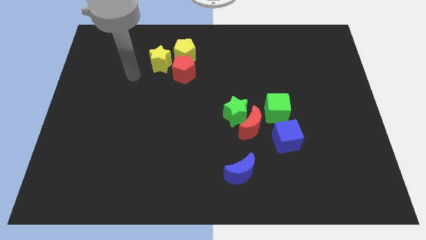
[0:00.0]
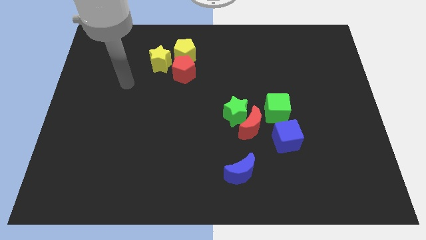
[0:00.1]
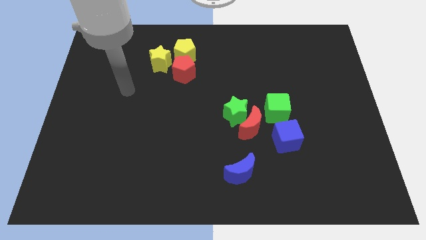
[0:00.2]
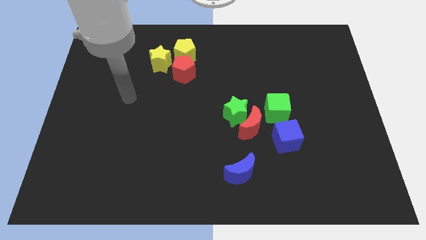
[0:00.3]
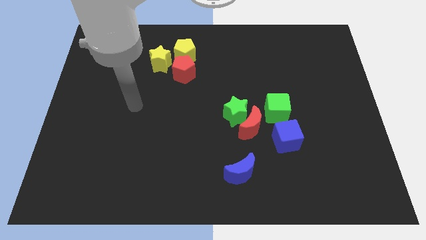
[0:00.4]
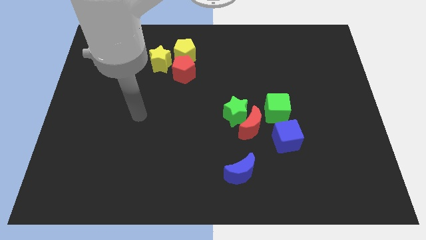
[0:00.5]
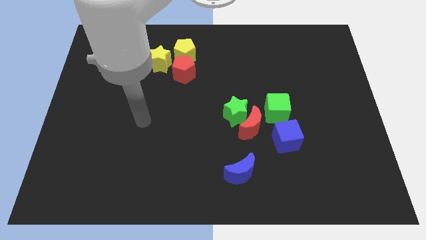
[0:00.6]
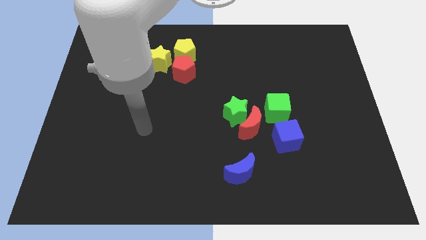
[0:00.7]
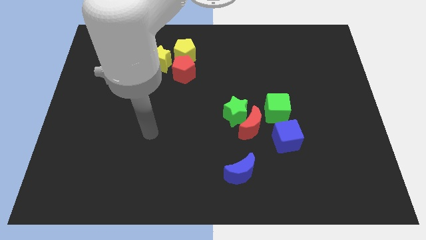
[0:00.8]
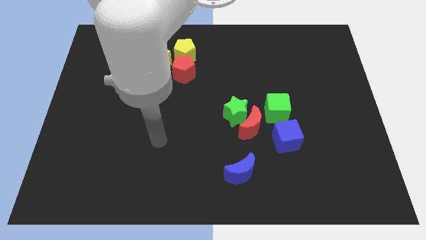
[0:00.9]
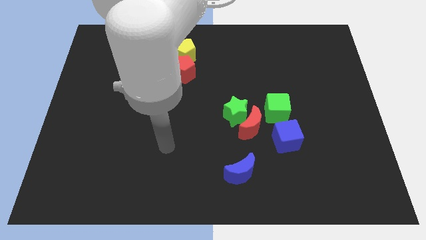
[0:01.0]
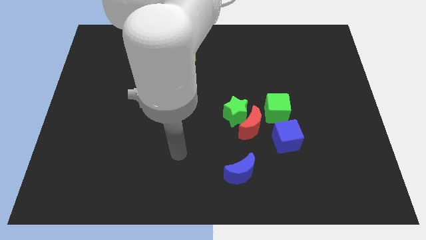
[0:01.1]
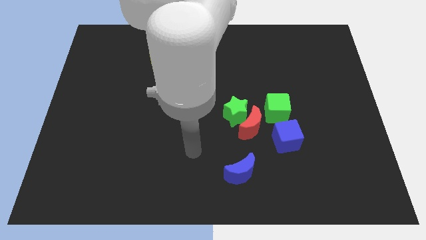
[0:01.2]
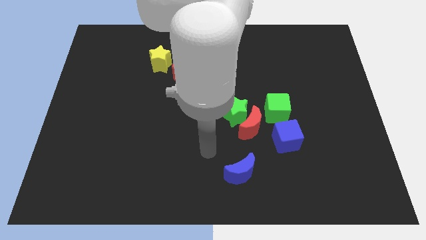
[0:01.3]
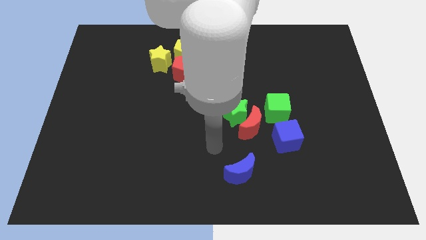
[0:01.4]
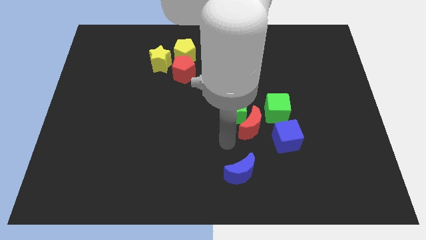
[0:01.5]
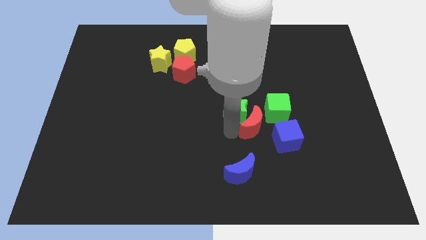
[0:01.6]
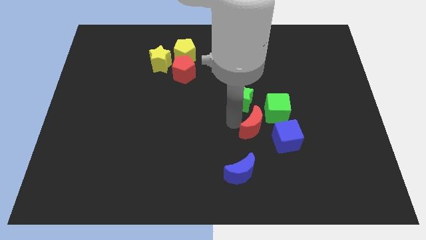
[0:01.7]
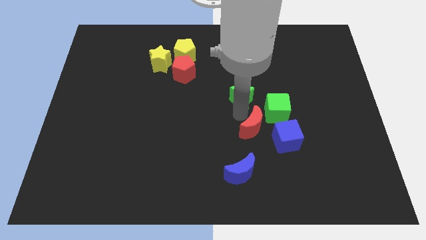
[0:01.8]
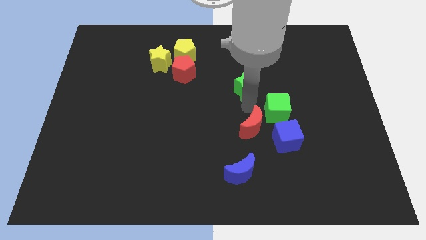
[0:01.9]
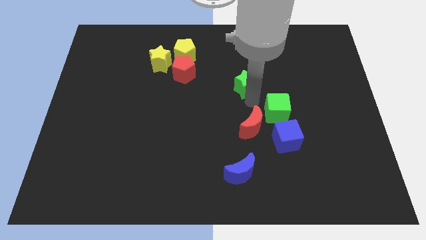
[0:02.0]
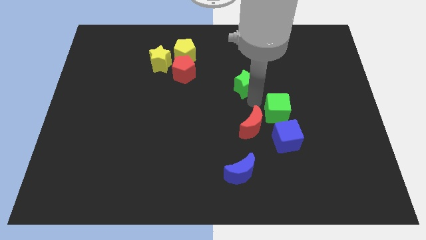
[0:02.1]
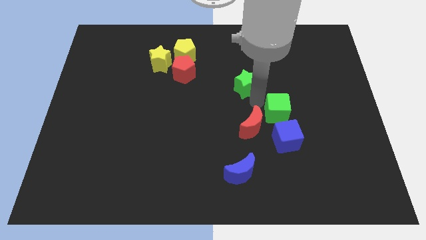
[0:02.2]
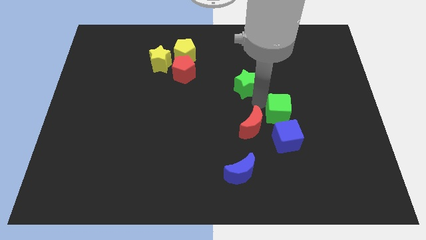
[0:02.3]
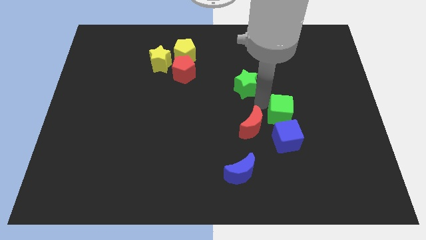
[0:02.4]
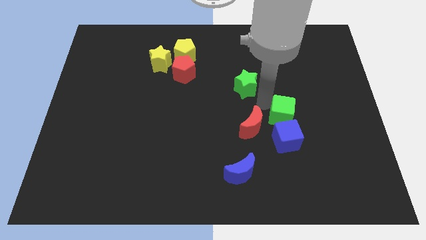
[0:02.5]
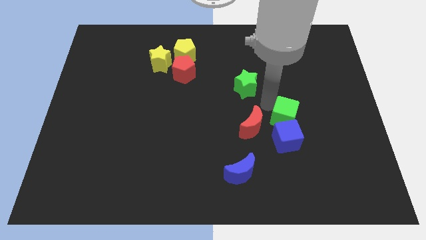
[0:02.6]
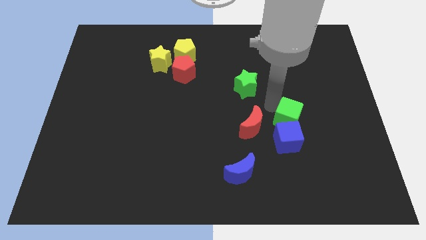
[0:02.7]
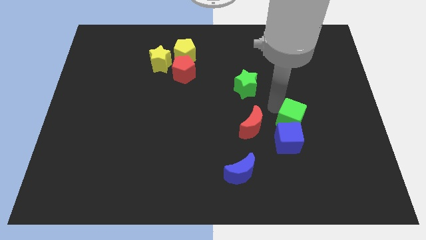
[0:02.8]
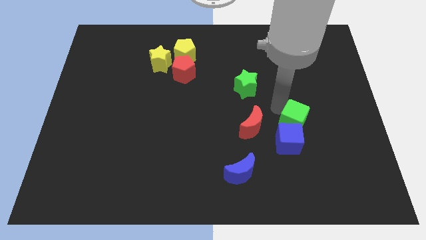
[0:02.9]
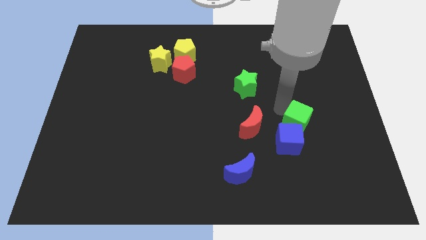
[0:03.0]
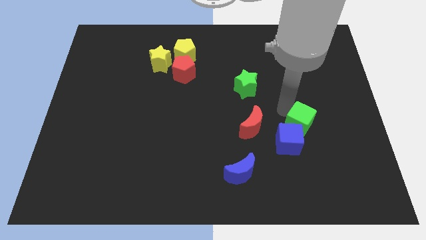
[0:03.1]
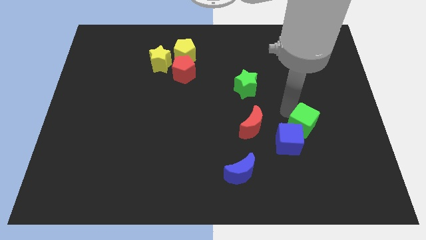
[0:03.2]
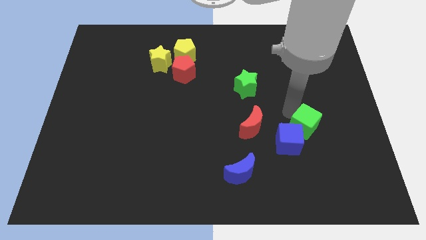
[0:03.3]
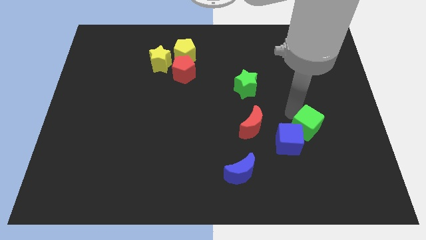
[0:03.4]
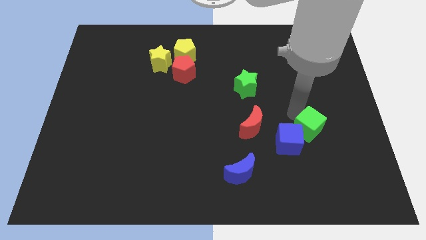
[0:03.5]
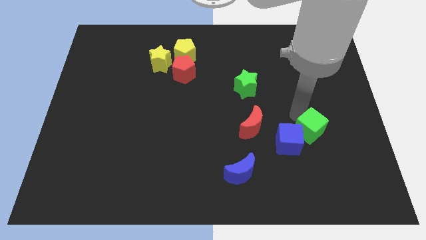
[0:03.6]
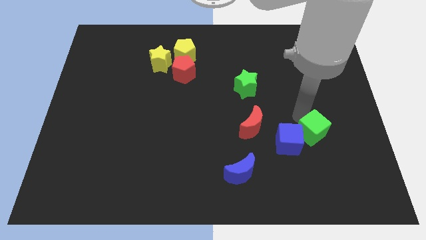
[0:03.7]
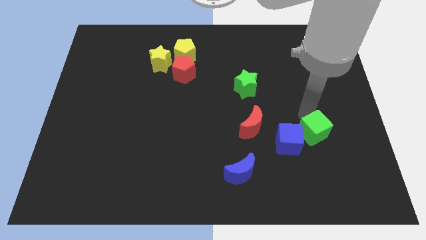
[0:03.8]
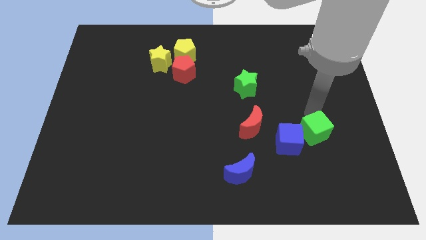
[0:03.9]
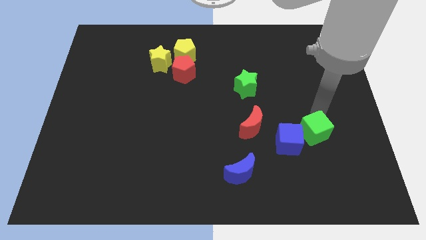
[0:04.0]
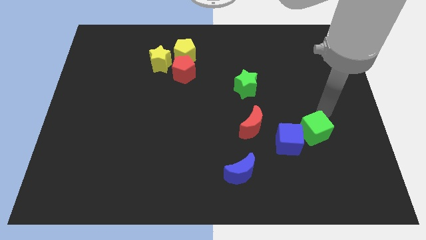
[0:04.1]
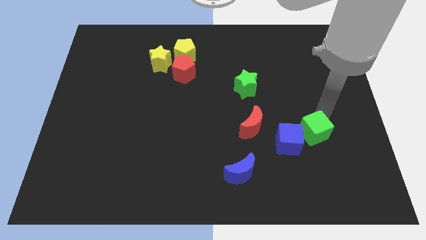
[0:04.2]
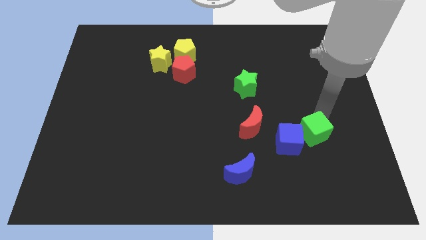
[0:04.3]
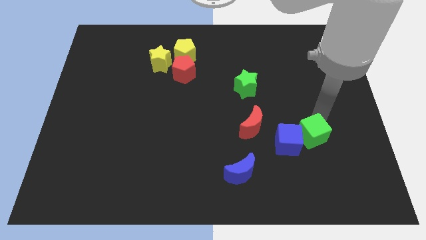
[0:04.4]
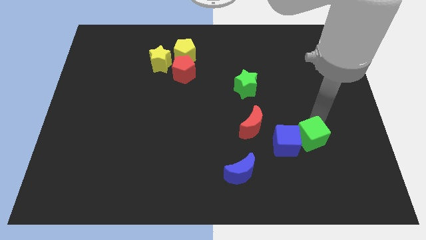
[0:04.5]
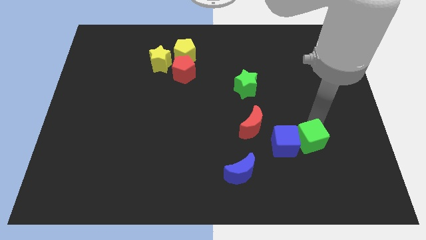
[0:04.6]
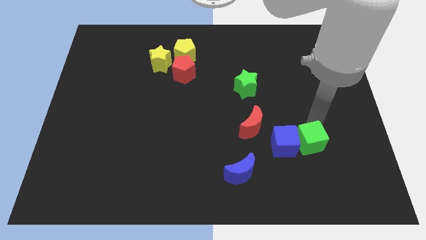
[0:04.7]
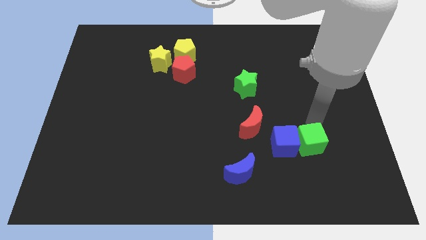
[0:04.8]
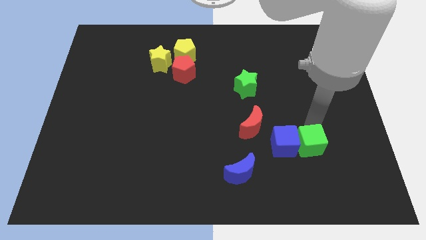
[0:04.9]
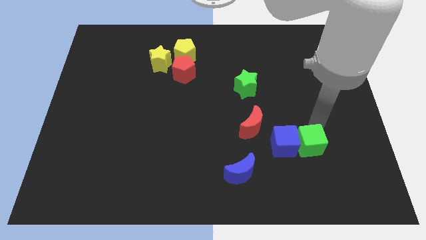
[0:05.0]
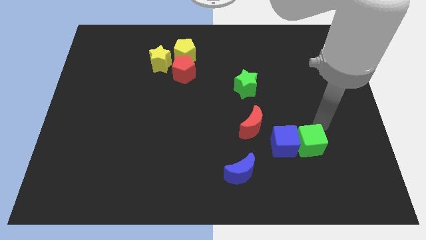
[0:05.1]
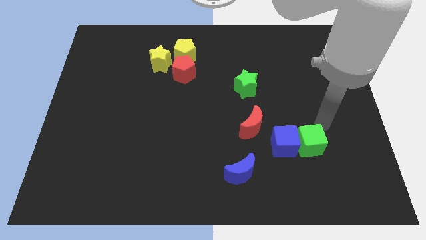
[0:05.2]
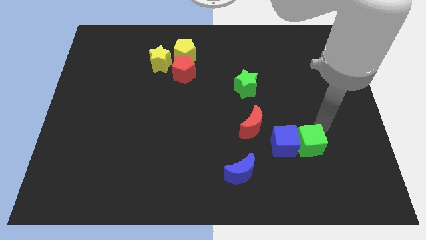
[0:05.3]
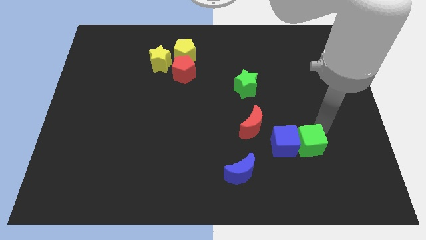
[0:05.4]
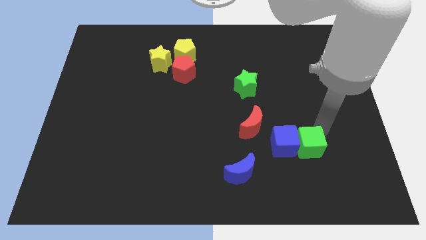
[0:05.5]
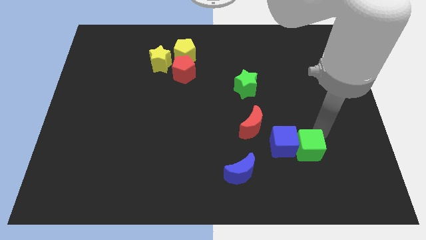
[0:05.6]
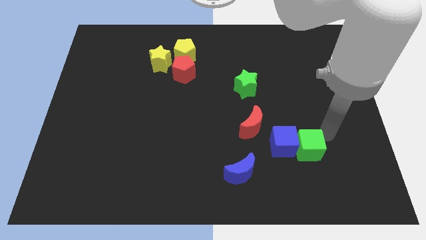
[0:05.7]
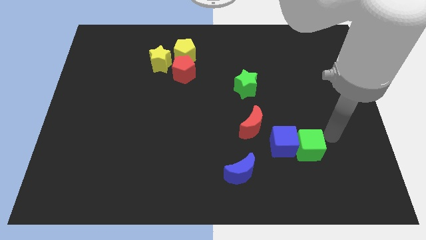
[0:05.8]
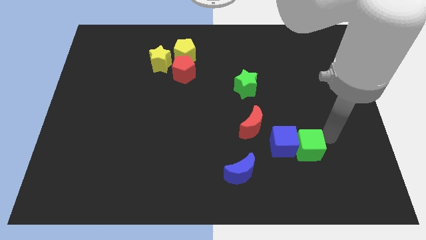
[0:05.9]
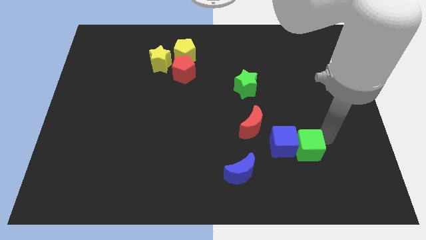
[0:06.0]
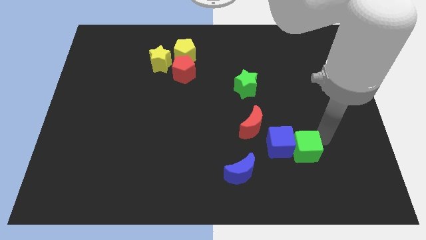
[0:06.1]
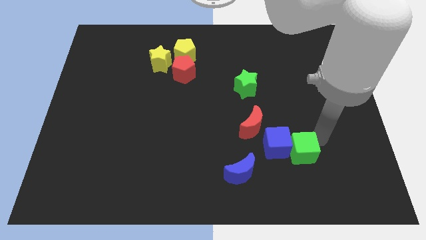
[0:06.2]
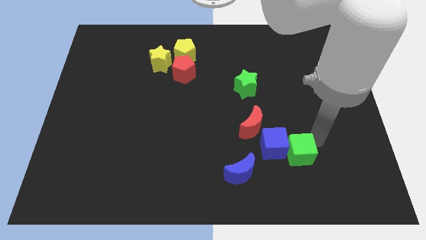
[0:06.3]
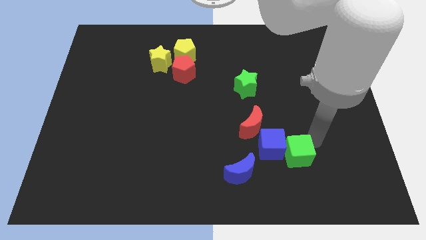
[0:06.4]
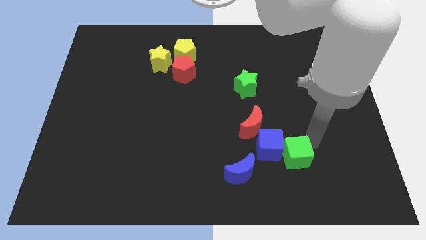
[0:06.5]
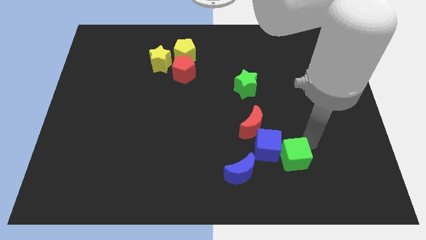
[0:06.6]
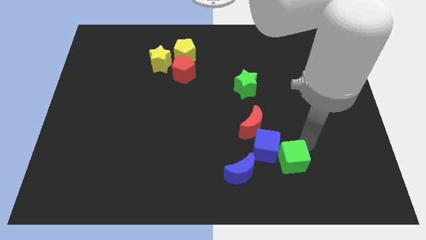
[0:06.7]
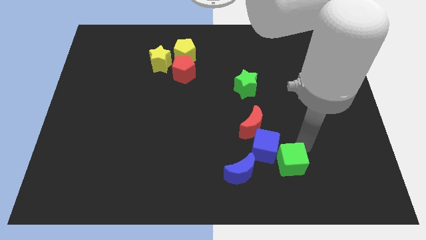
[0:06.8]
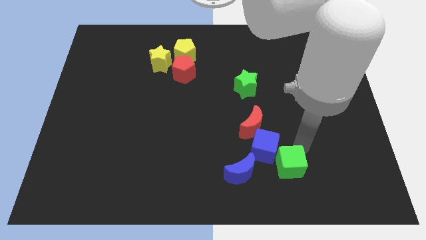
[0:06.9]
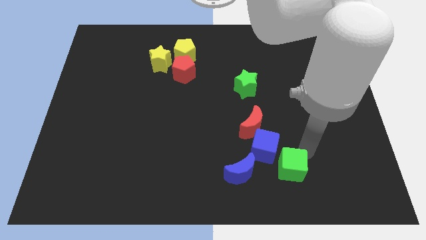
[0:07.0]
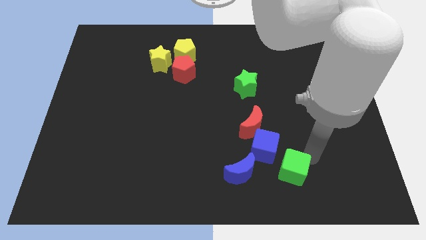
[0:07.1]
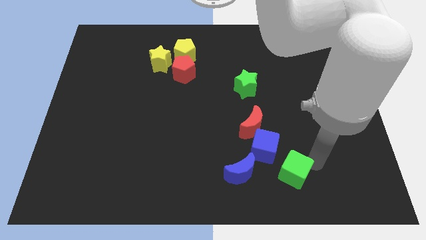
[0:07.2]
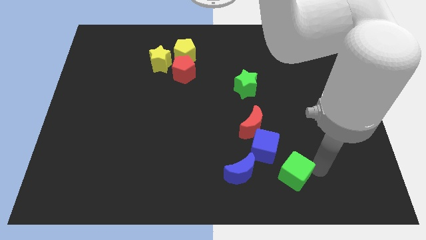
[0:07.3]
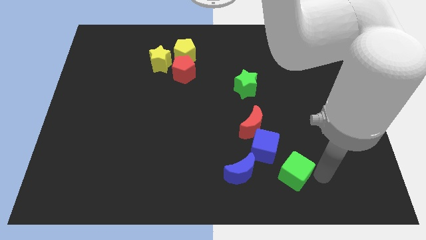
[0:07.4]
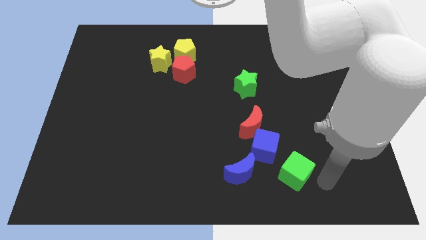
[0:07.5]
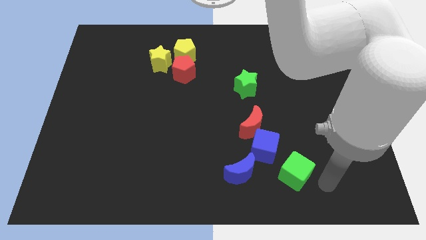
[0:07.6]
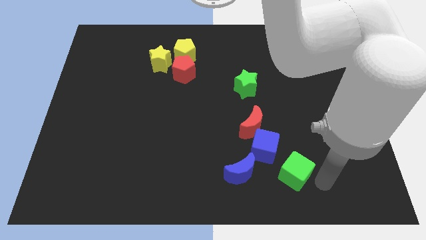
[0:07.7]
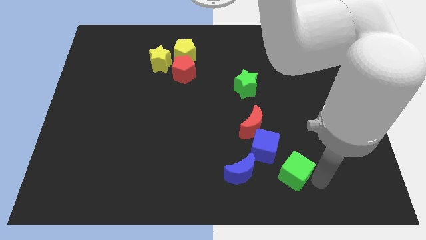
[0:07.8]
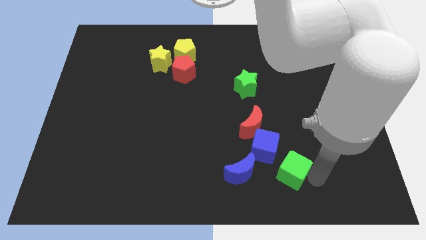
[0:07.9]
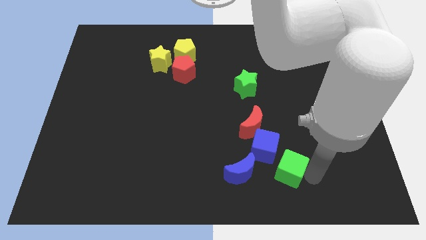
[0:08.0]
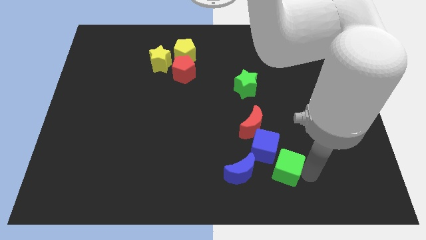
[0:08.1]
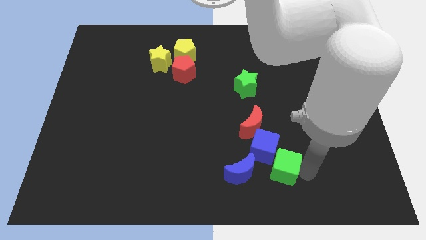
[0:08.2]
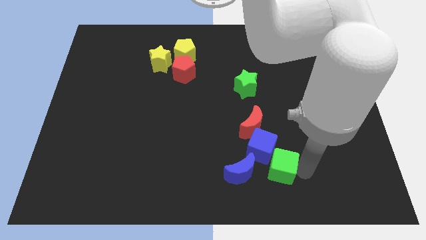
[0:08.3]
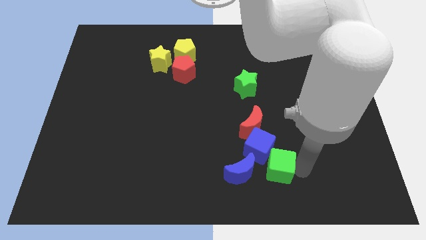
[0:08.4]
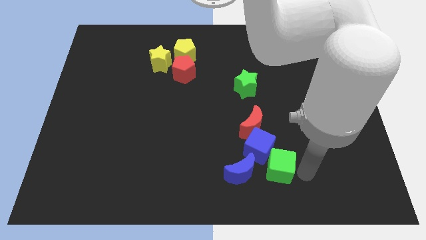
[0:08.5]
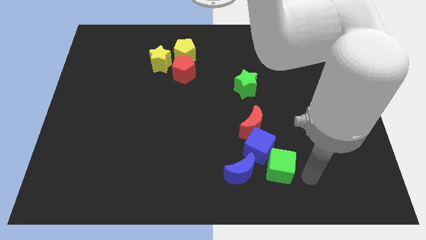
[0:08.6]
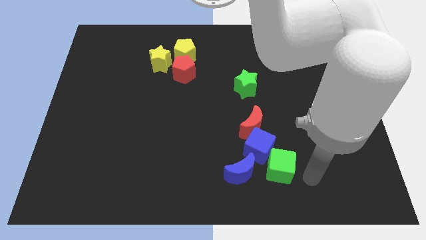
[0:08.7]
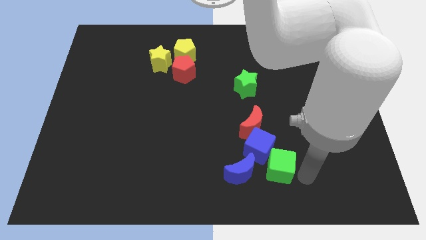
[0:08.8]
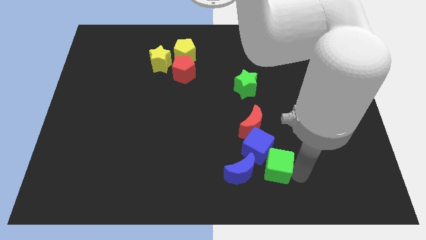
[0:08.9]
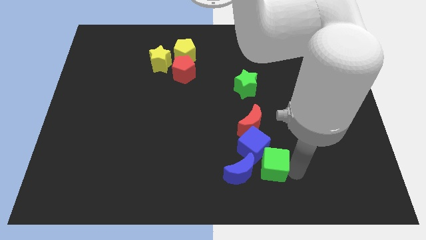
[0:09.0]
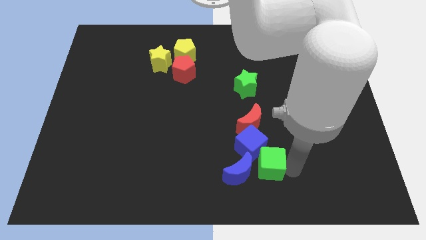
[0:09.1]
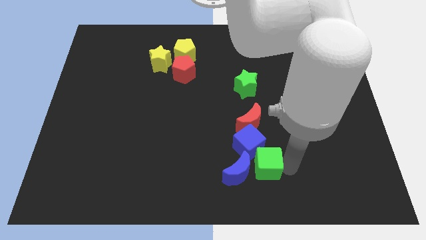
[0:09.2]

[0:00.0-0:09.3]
put the green cube to the blue moon
